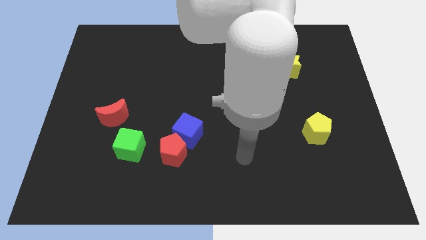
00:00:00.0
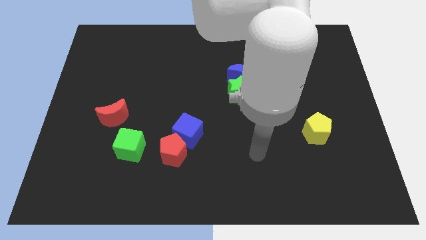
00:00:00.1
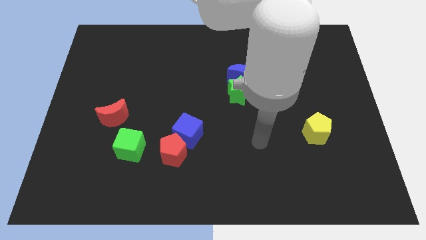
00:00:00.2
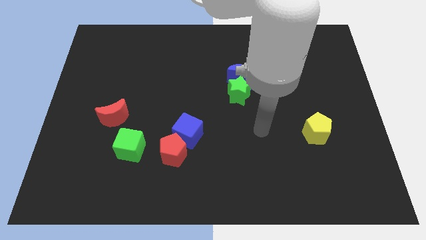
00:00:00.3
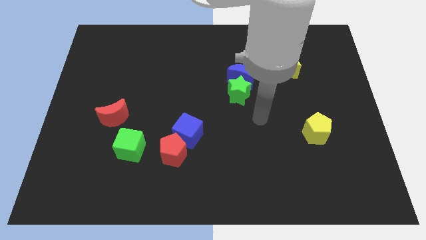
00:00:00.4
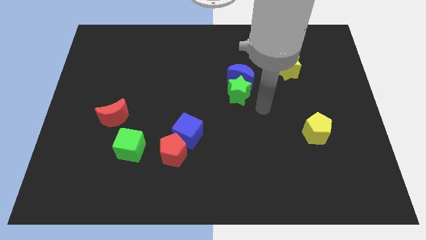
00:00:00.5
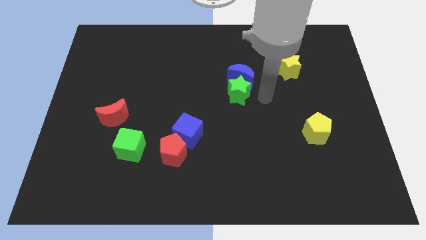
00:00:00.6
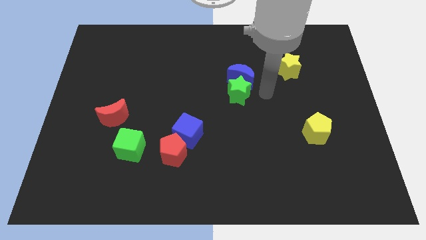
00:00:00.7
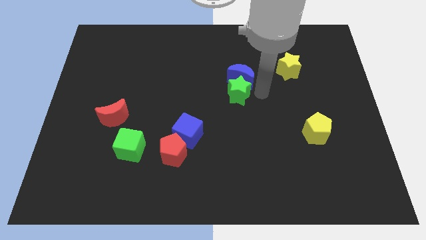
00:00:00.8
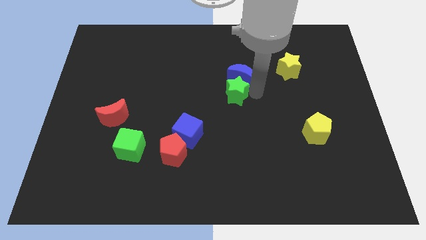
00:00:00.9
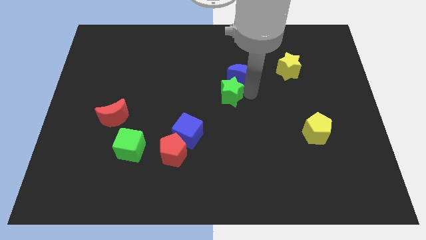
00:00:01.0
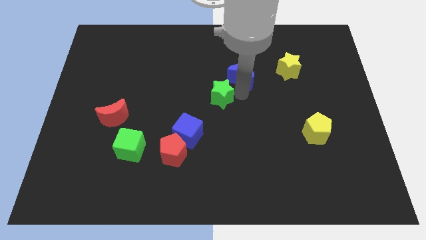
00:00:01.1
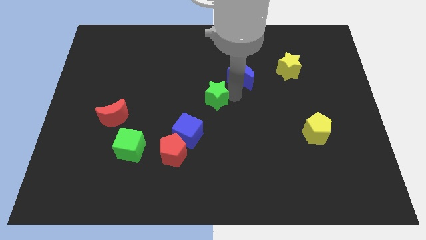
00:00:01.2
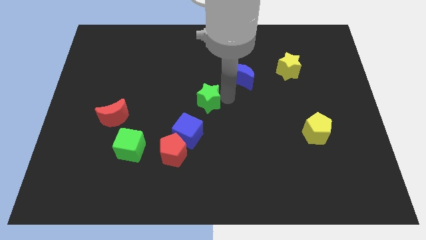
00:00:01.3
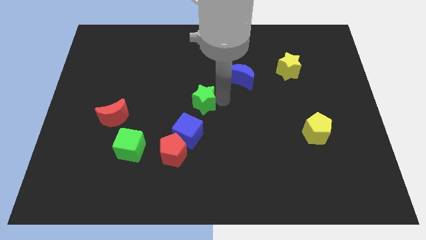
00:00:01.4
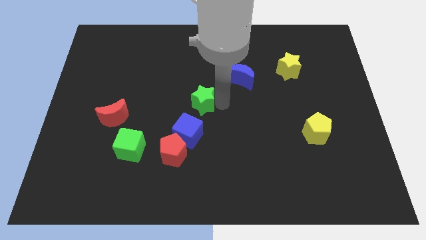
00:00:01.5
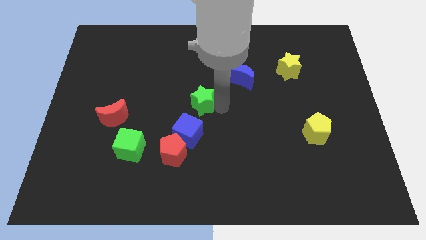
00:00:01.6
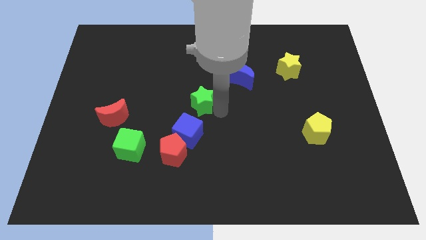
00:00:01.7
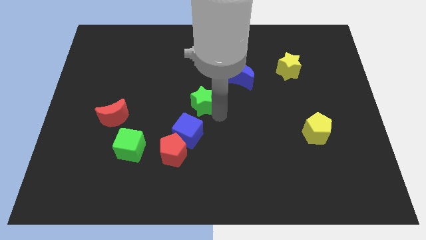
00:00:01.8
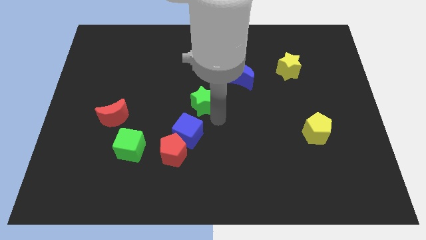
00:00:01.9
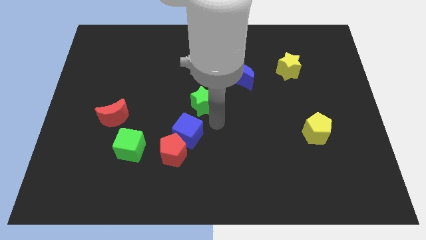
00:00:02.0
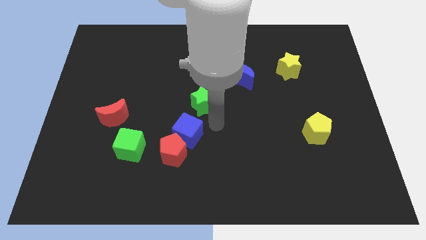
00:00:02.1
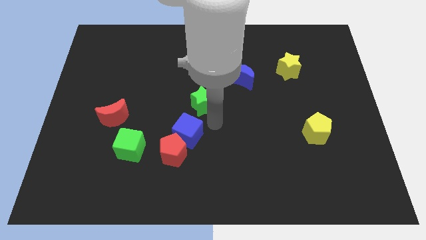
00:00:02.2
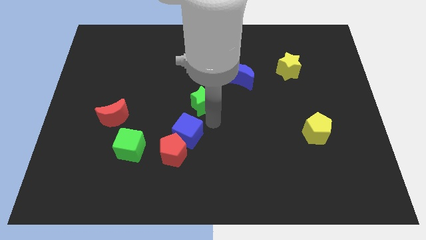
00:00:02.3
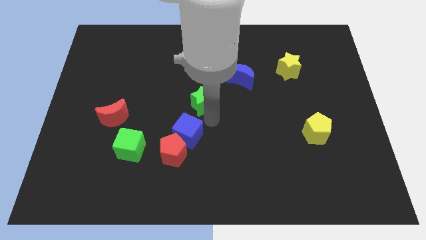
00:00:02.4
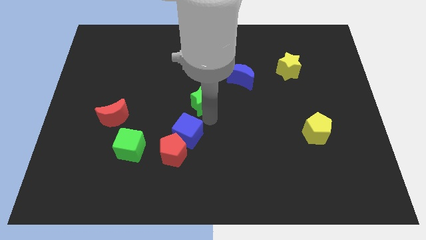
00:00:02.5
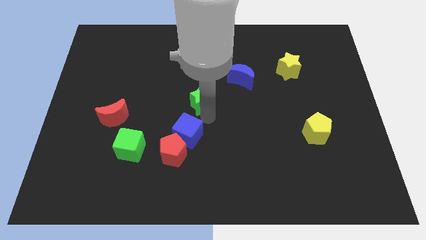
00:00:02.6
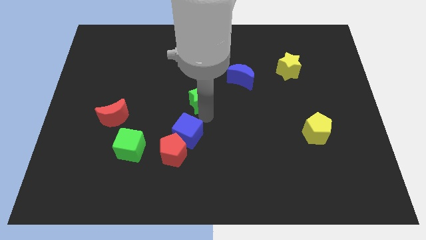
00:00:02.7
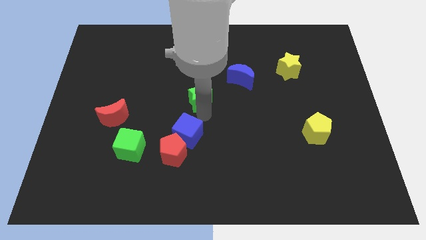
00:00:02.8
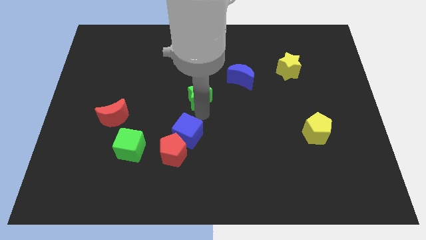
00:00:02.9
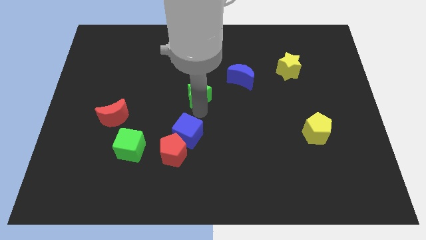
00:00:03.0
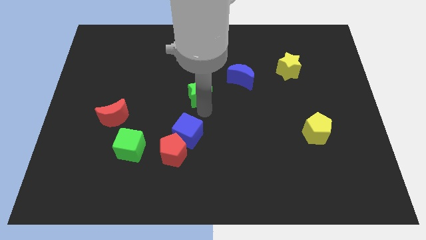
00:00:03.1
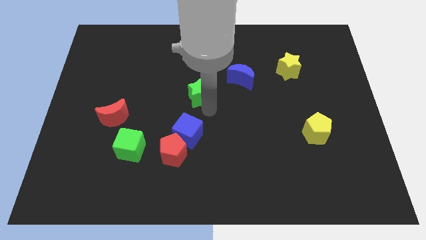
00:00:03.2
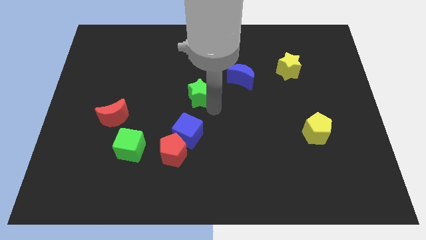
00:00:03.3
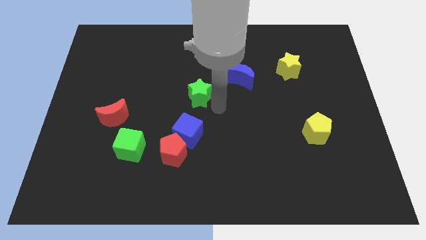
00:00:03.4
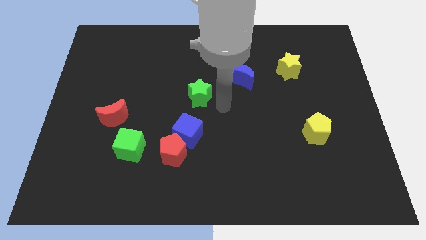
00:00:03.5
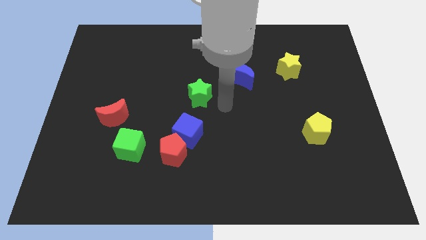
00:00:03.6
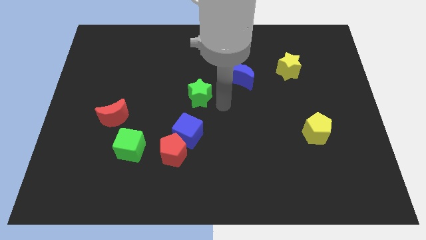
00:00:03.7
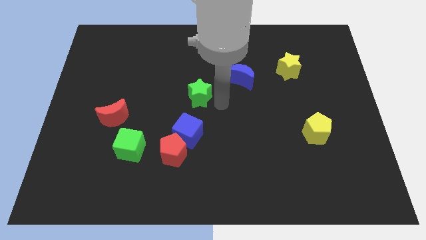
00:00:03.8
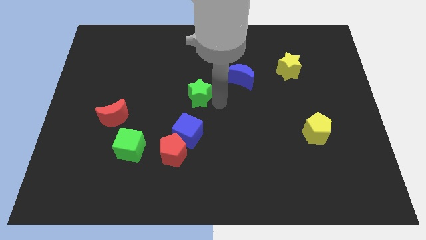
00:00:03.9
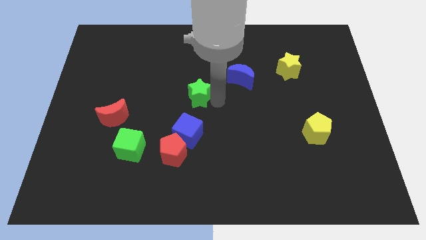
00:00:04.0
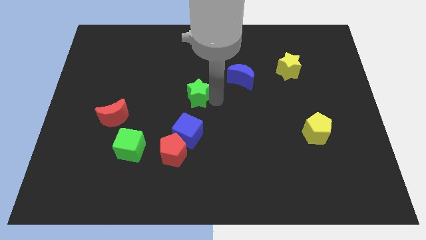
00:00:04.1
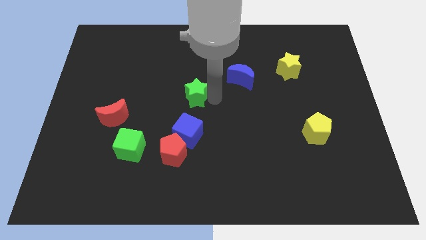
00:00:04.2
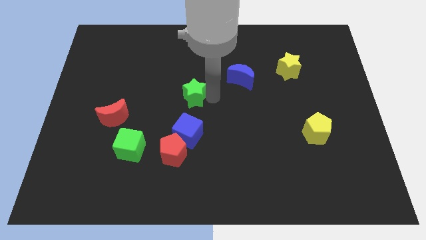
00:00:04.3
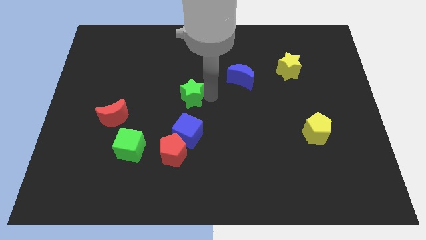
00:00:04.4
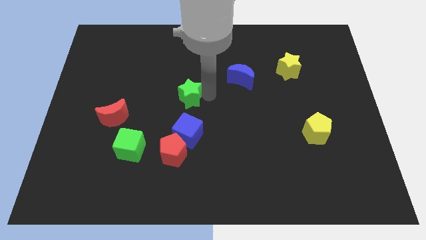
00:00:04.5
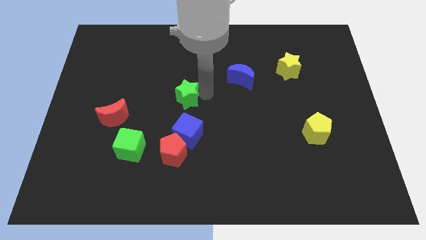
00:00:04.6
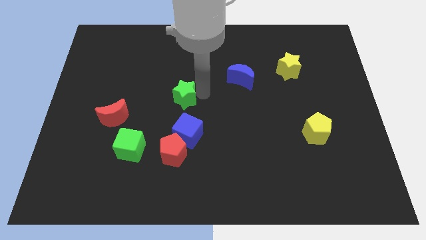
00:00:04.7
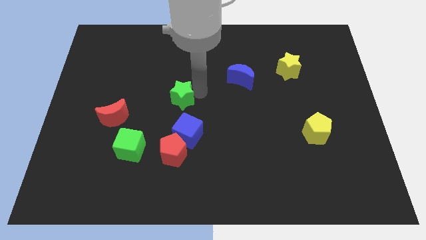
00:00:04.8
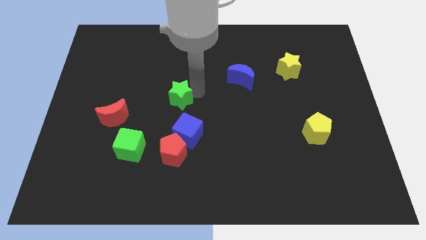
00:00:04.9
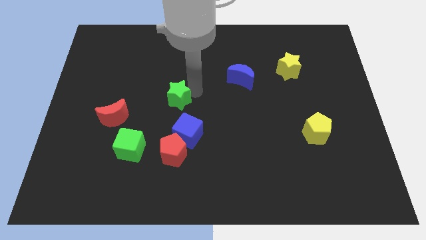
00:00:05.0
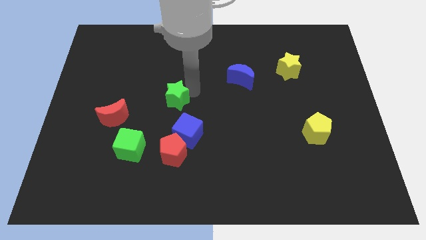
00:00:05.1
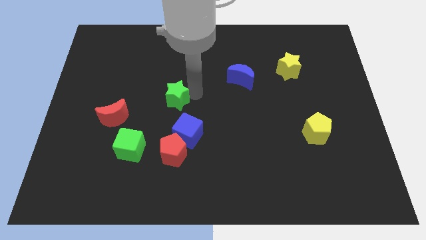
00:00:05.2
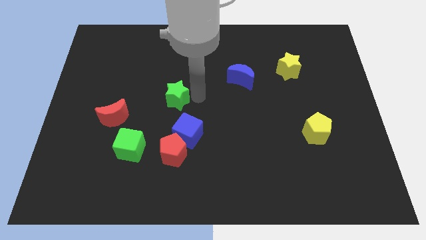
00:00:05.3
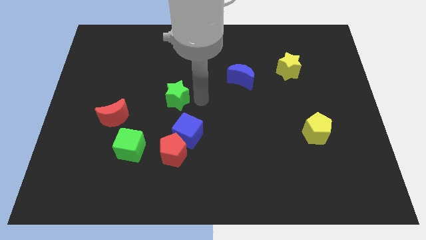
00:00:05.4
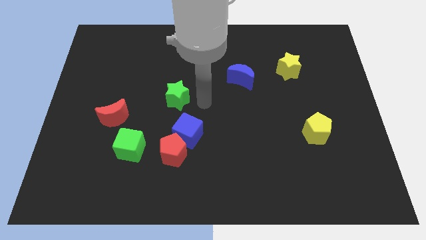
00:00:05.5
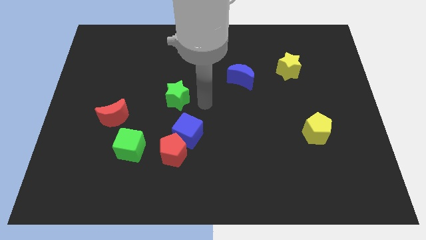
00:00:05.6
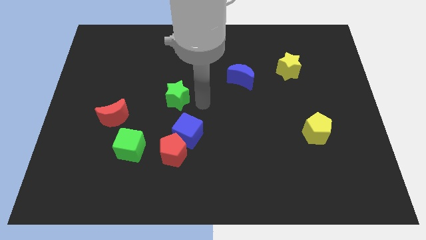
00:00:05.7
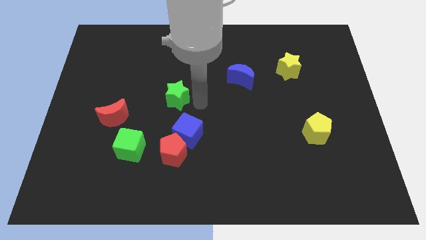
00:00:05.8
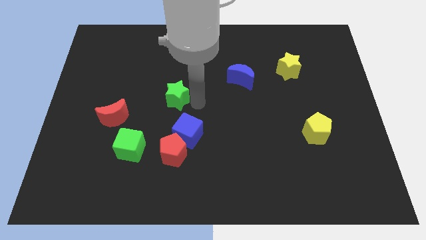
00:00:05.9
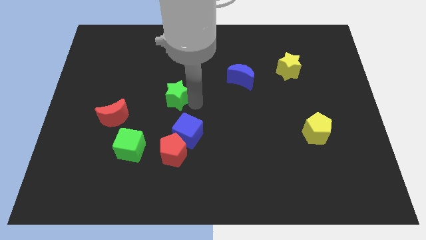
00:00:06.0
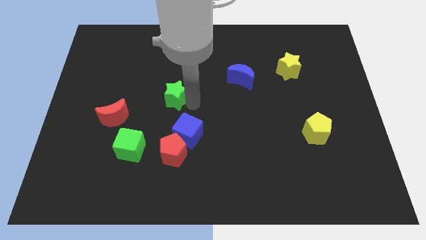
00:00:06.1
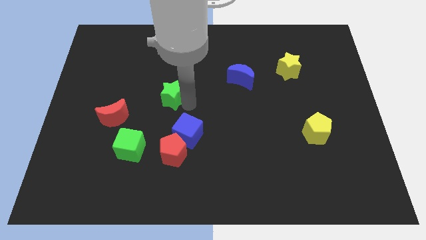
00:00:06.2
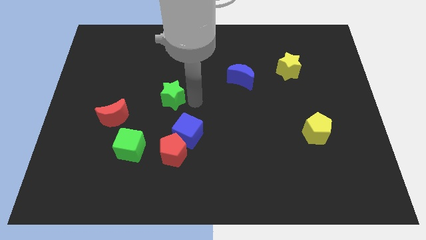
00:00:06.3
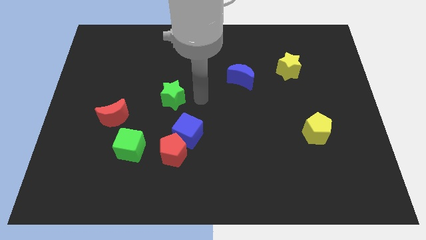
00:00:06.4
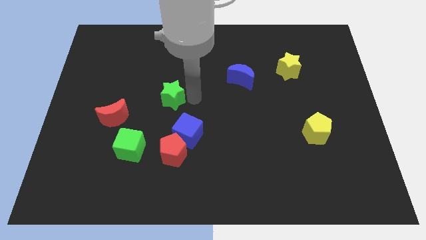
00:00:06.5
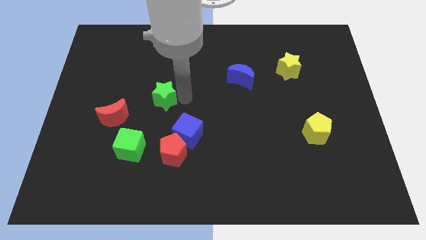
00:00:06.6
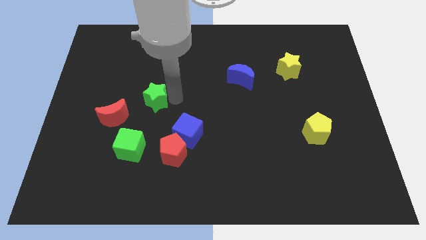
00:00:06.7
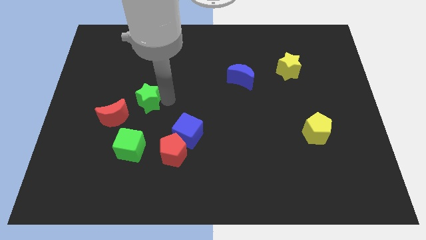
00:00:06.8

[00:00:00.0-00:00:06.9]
push the green star left

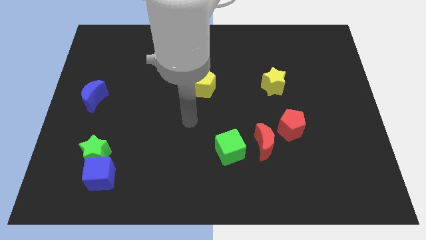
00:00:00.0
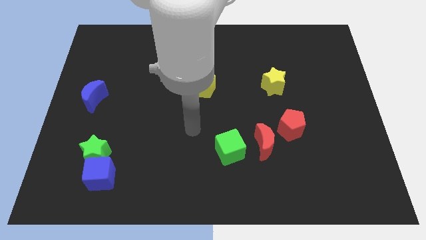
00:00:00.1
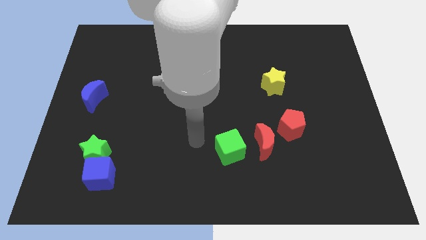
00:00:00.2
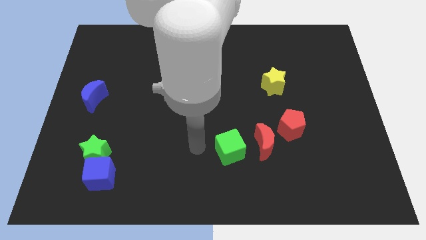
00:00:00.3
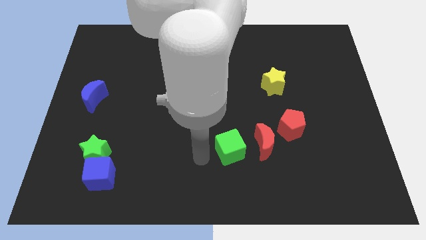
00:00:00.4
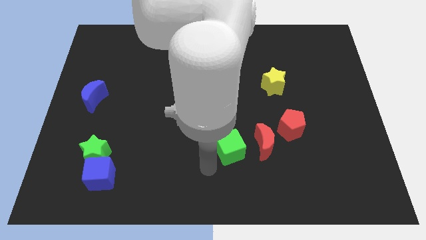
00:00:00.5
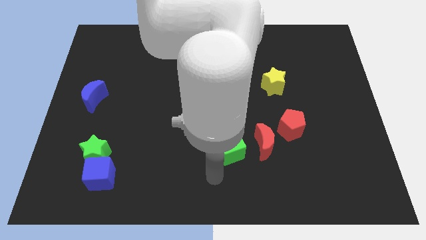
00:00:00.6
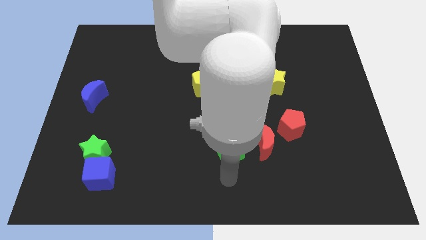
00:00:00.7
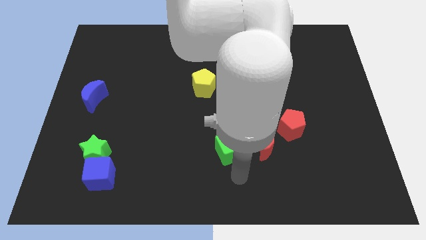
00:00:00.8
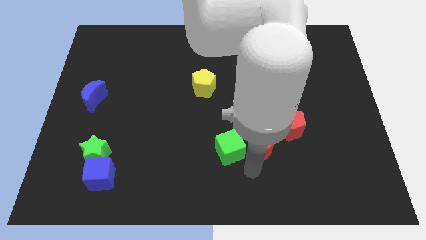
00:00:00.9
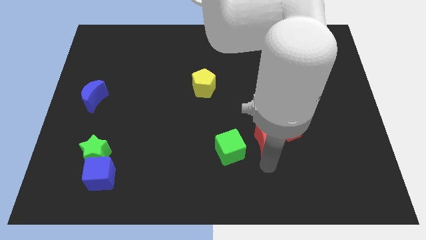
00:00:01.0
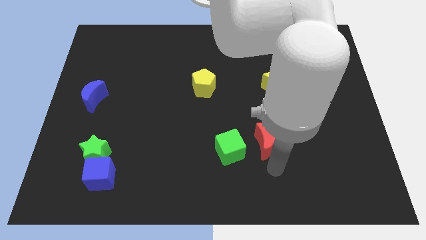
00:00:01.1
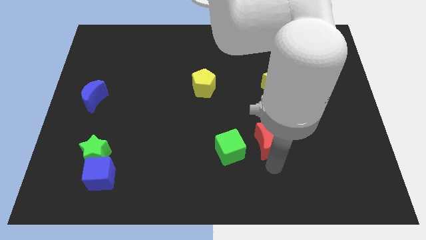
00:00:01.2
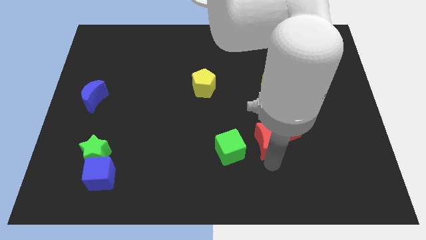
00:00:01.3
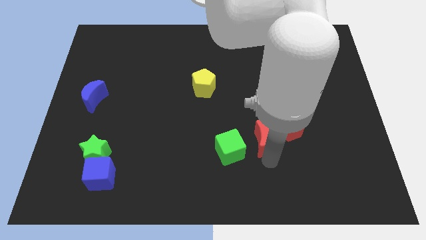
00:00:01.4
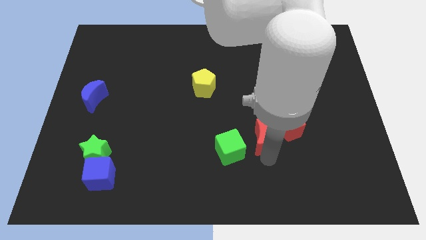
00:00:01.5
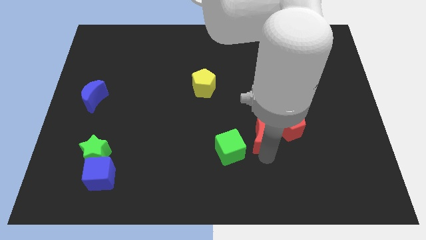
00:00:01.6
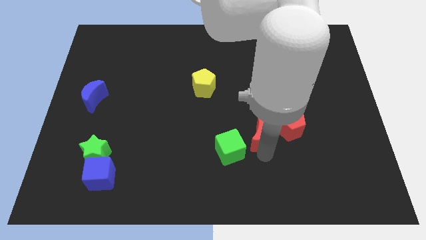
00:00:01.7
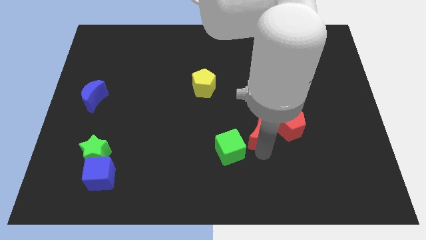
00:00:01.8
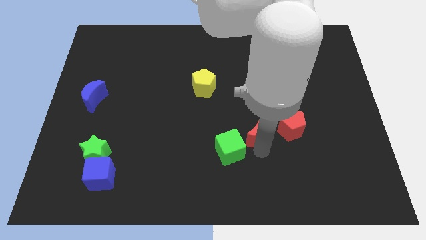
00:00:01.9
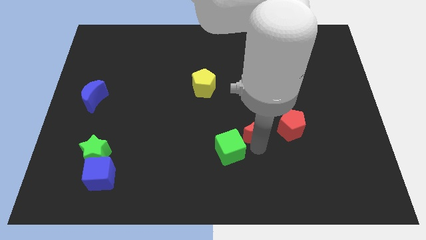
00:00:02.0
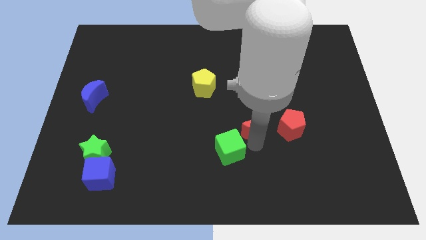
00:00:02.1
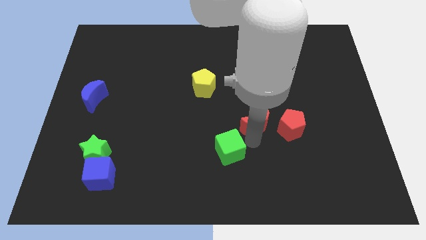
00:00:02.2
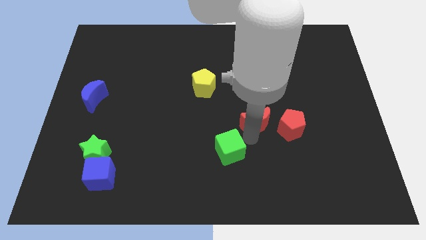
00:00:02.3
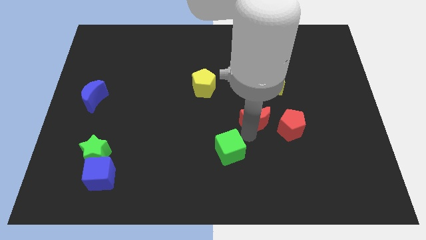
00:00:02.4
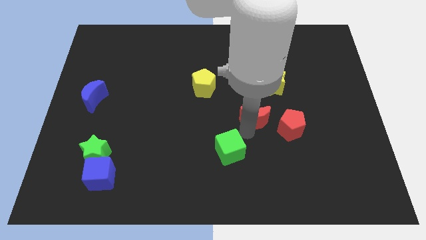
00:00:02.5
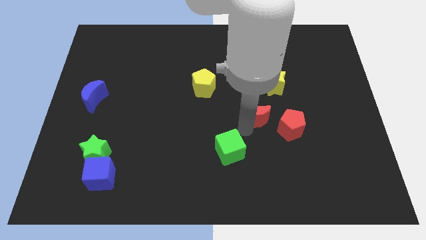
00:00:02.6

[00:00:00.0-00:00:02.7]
slightly move the red moon up
